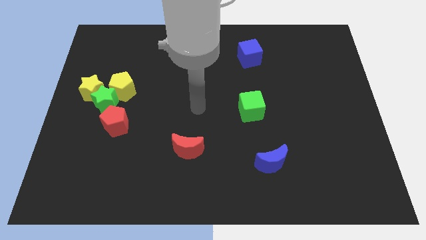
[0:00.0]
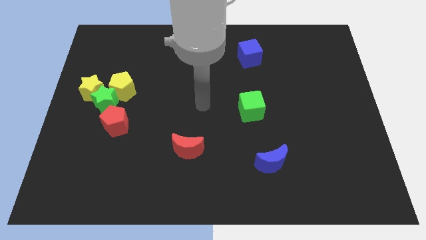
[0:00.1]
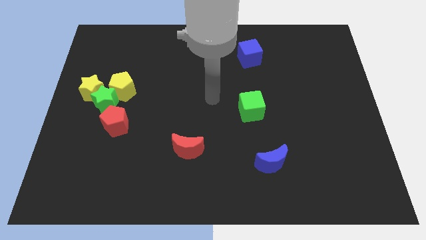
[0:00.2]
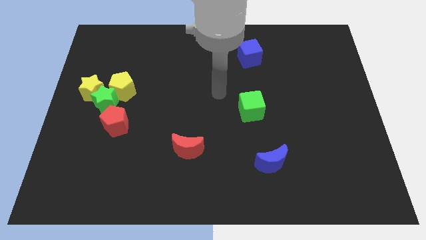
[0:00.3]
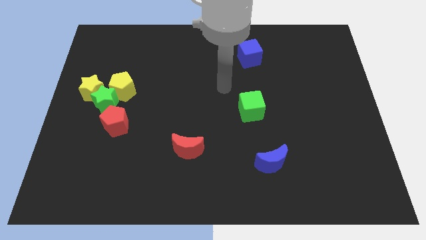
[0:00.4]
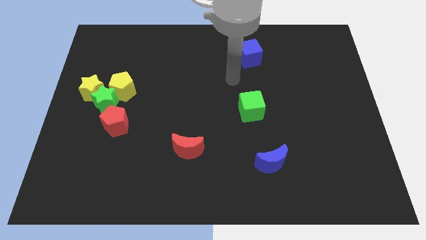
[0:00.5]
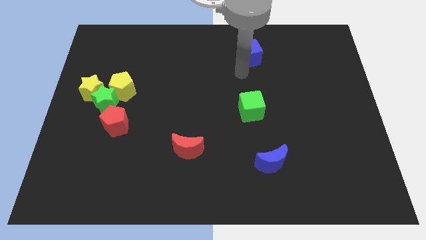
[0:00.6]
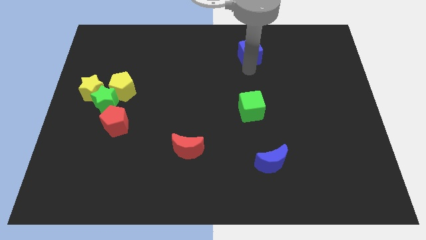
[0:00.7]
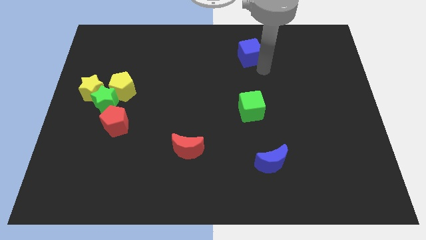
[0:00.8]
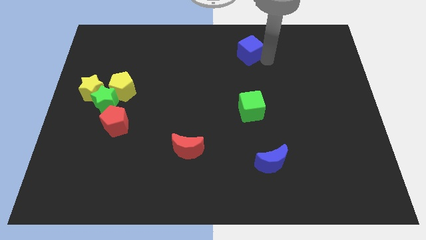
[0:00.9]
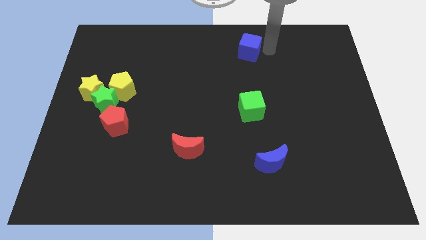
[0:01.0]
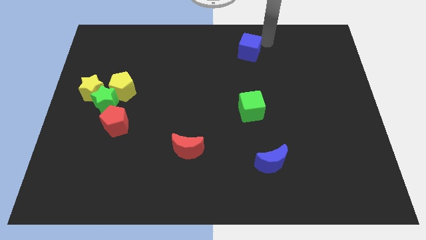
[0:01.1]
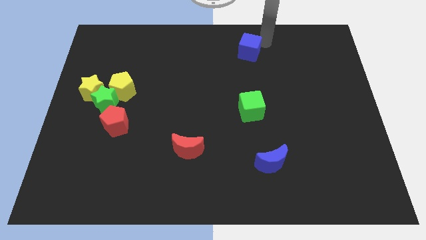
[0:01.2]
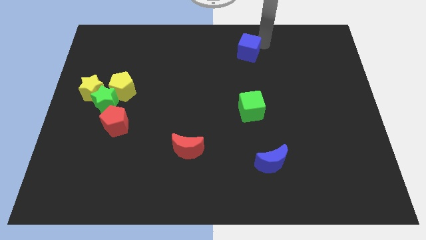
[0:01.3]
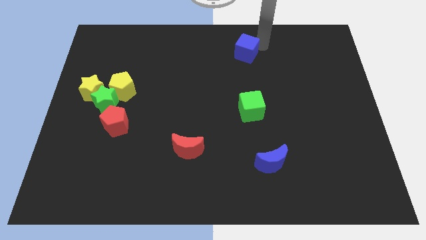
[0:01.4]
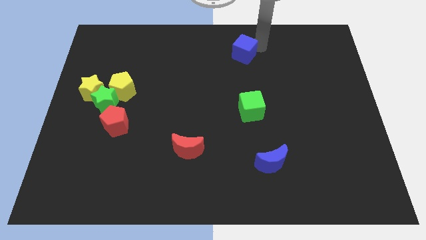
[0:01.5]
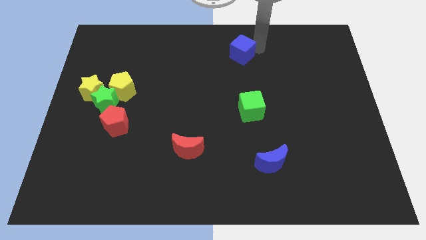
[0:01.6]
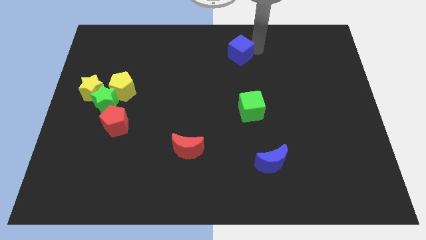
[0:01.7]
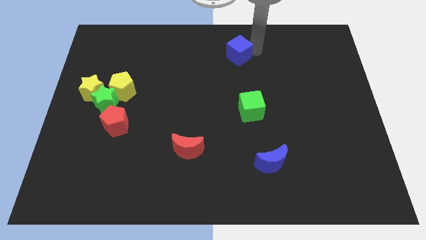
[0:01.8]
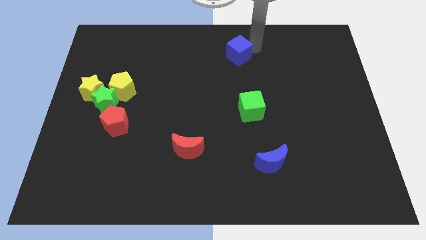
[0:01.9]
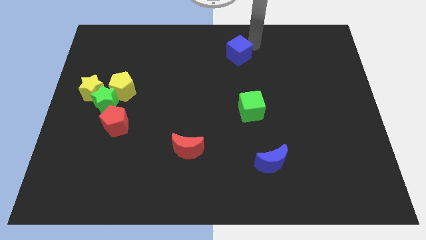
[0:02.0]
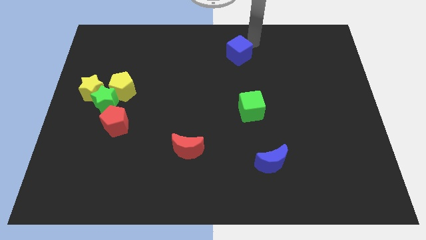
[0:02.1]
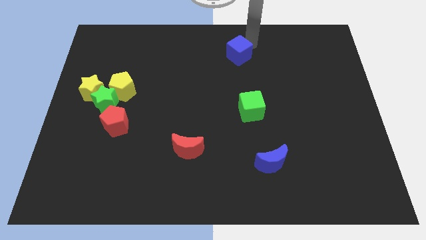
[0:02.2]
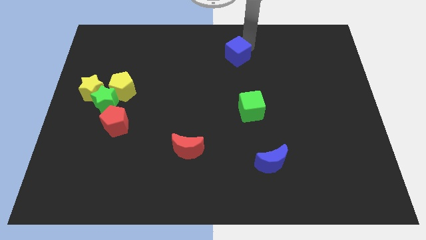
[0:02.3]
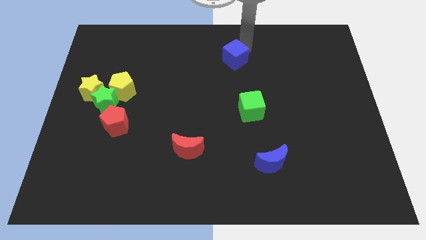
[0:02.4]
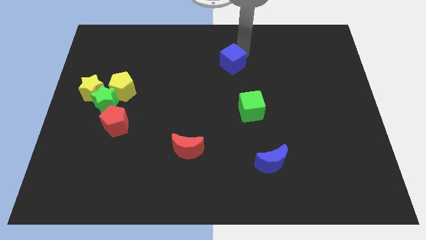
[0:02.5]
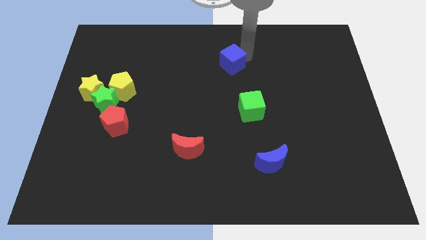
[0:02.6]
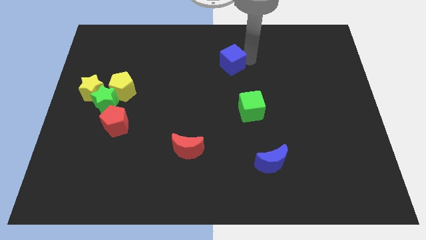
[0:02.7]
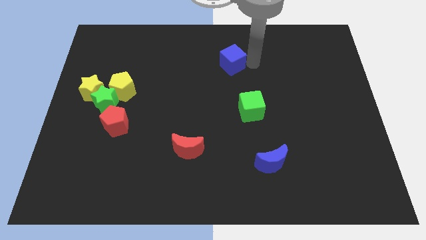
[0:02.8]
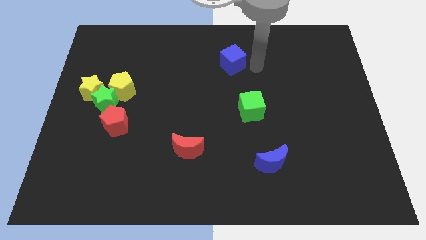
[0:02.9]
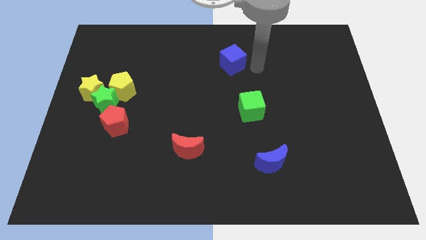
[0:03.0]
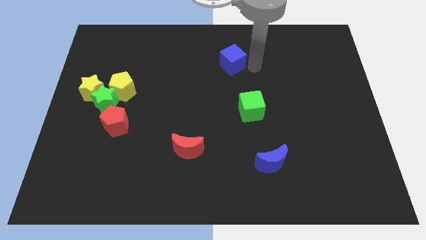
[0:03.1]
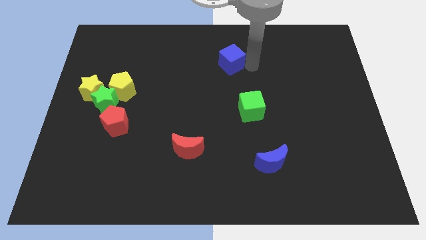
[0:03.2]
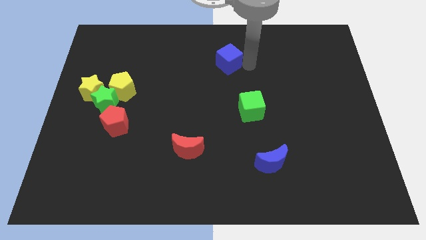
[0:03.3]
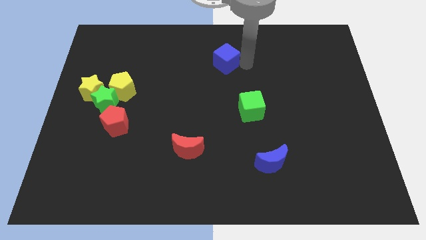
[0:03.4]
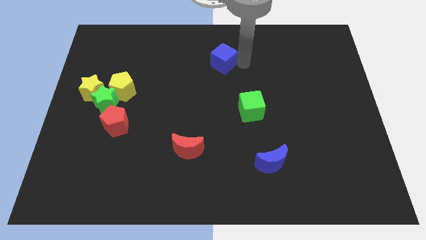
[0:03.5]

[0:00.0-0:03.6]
slide the blue cube a bit left

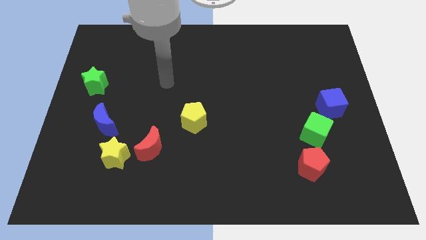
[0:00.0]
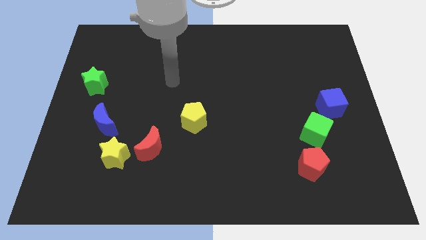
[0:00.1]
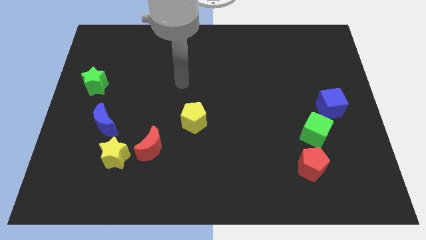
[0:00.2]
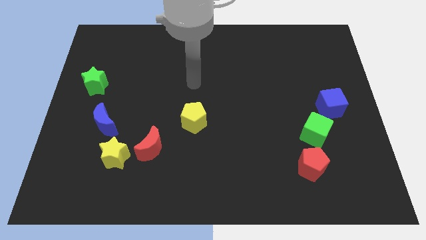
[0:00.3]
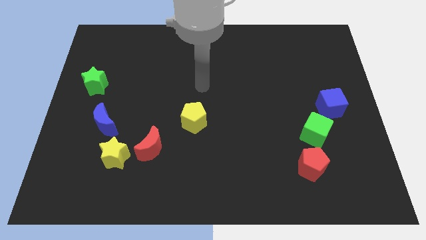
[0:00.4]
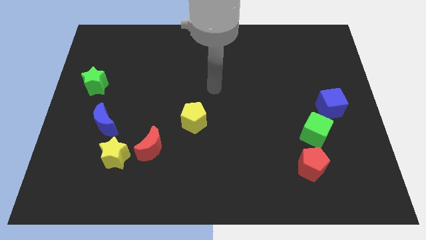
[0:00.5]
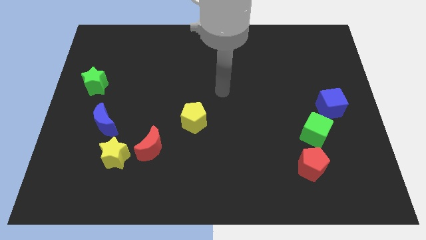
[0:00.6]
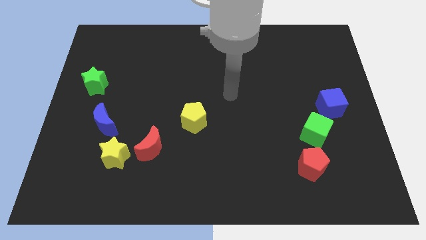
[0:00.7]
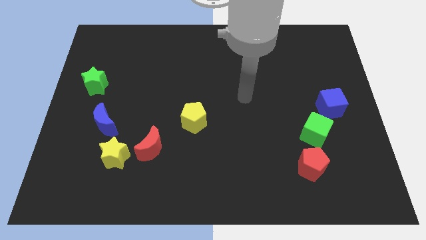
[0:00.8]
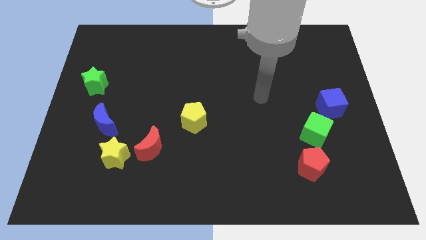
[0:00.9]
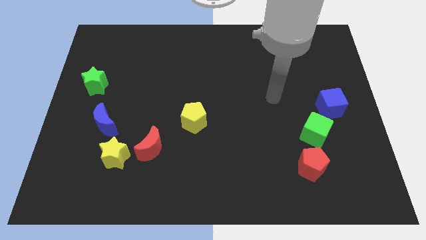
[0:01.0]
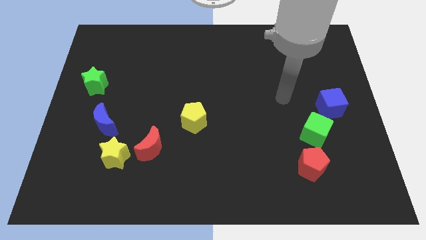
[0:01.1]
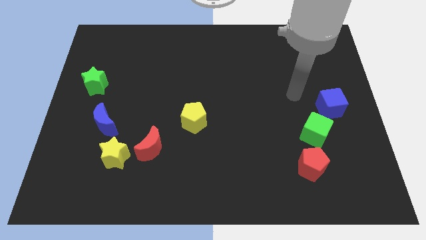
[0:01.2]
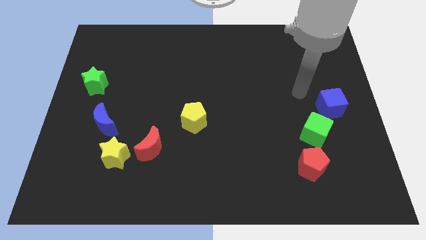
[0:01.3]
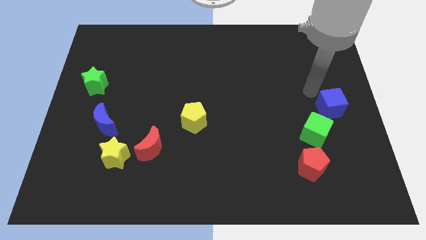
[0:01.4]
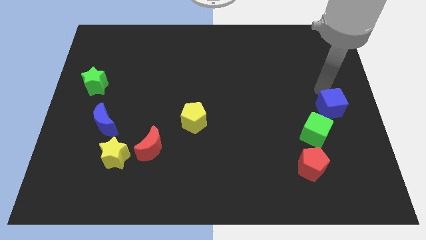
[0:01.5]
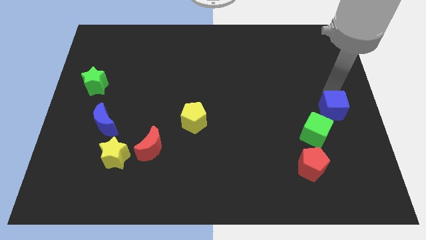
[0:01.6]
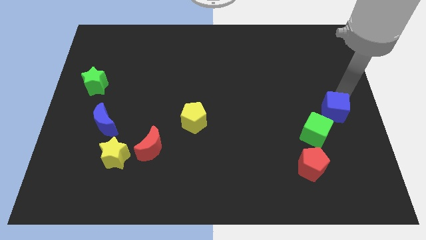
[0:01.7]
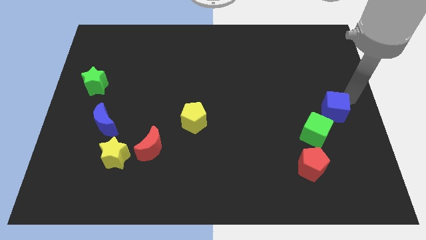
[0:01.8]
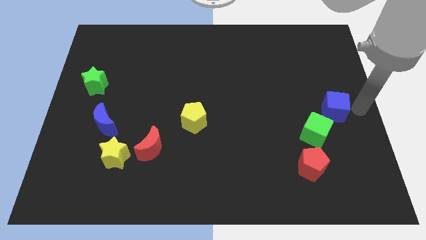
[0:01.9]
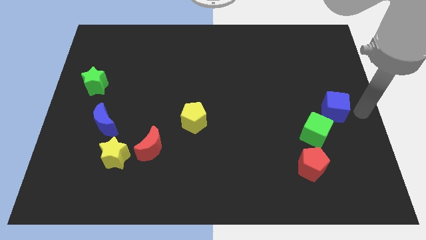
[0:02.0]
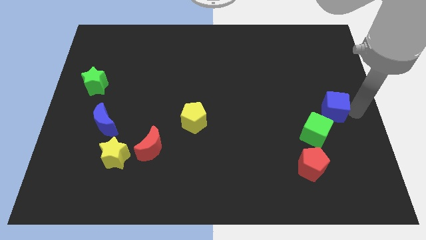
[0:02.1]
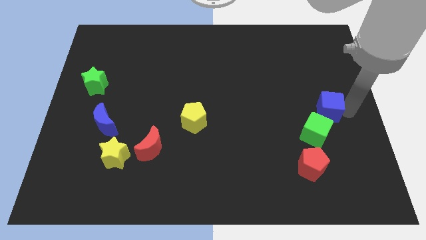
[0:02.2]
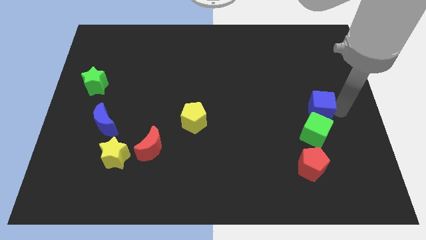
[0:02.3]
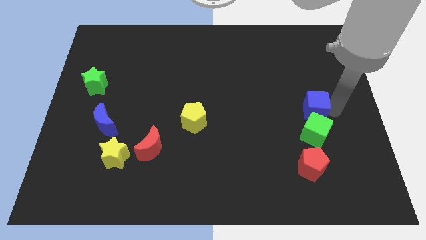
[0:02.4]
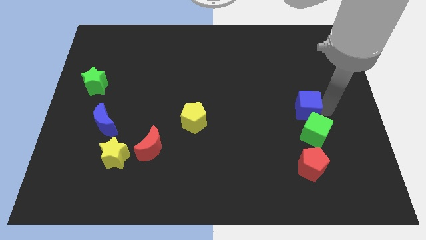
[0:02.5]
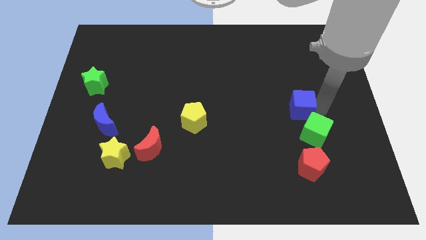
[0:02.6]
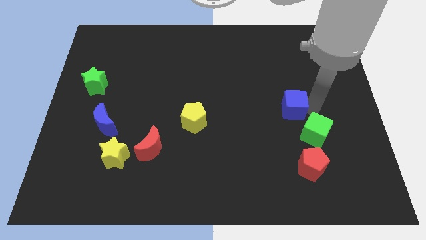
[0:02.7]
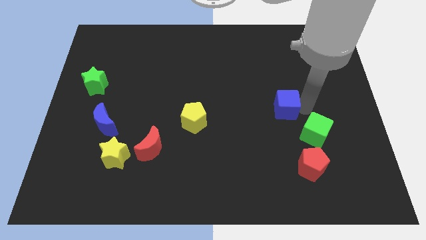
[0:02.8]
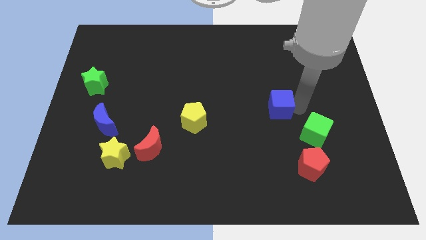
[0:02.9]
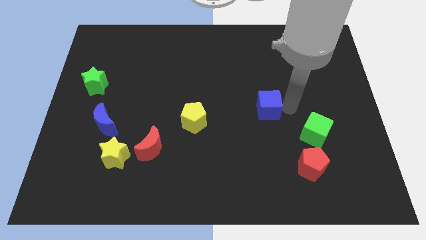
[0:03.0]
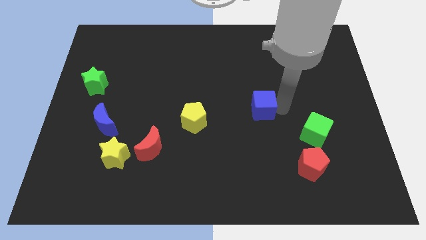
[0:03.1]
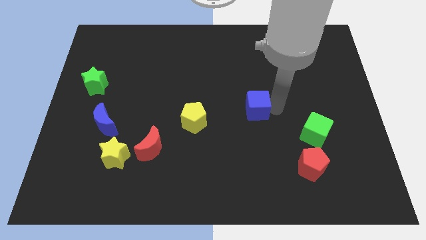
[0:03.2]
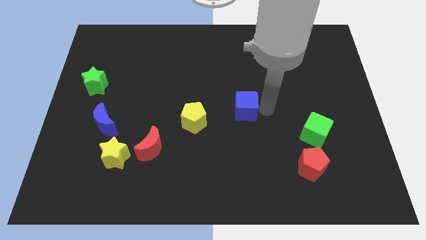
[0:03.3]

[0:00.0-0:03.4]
slide the blue cube left

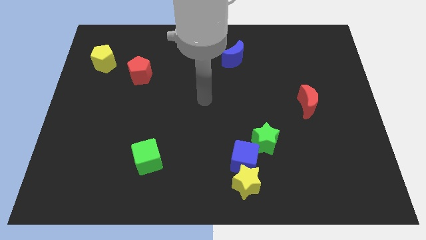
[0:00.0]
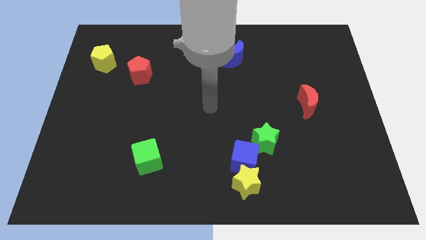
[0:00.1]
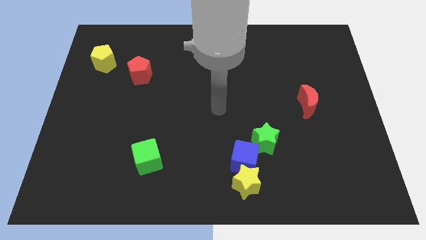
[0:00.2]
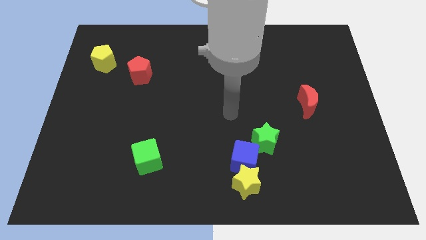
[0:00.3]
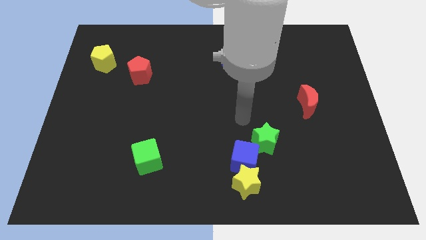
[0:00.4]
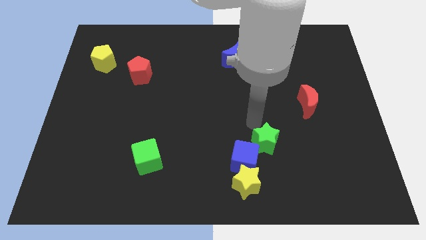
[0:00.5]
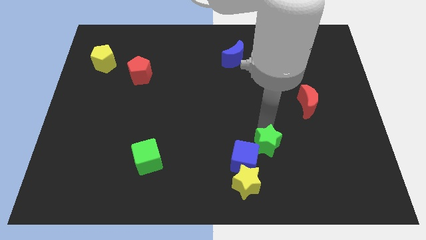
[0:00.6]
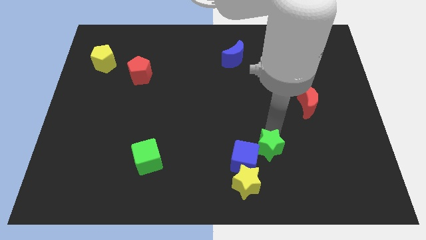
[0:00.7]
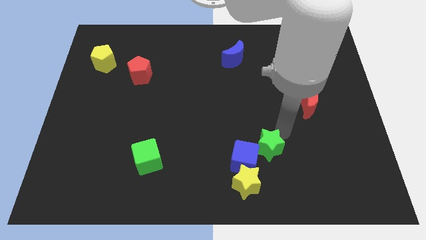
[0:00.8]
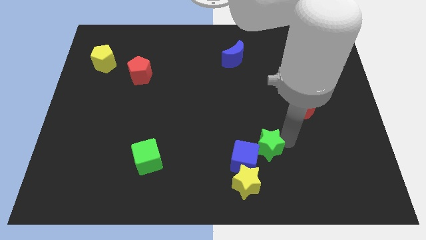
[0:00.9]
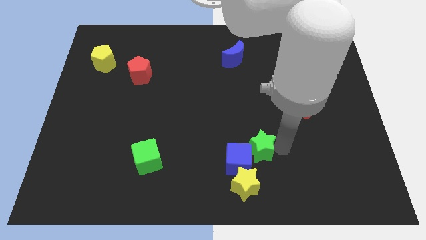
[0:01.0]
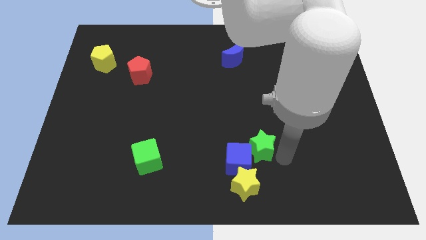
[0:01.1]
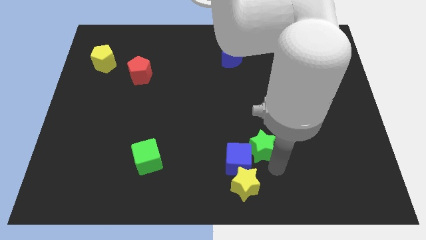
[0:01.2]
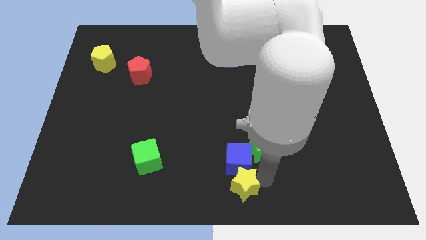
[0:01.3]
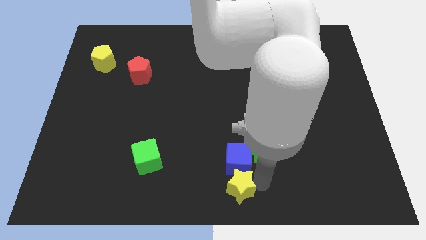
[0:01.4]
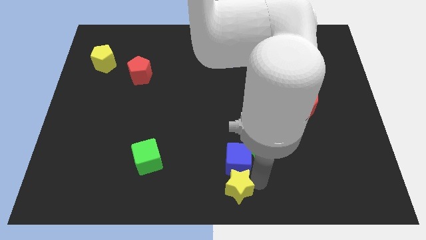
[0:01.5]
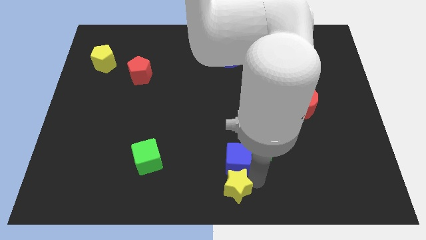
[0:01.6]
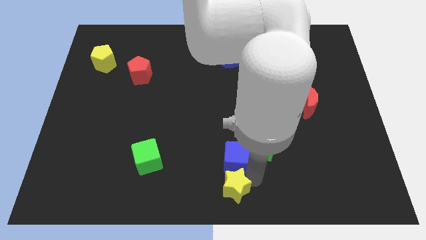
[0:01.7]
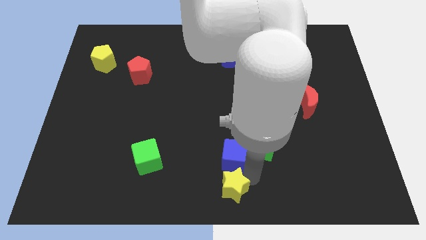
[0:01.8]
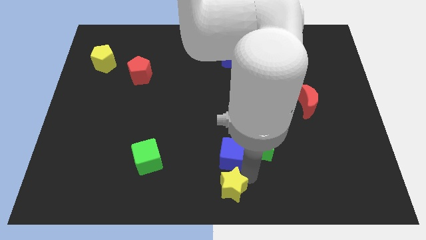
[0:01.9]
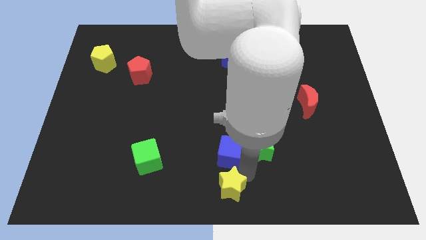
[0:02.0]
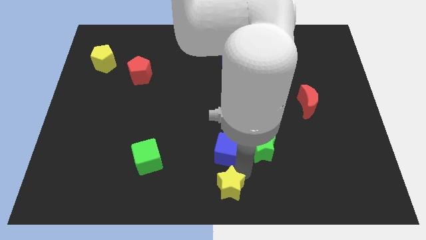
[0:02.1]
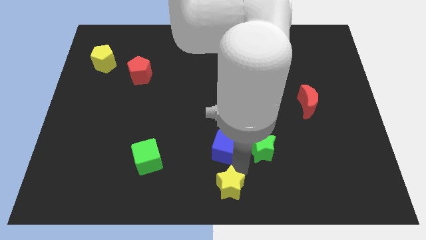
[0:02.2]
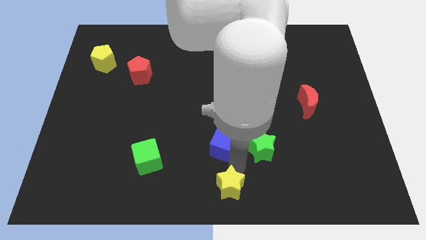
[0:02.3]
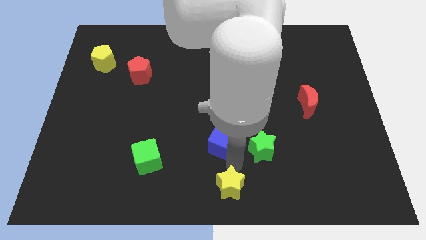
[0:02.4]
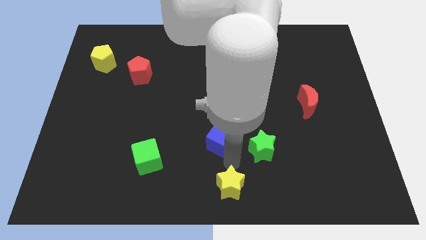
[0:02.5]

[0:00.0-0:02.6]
slightly move the blue cube up and left
